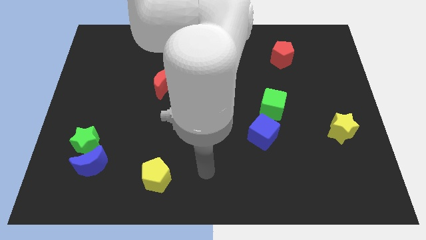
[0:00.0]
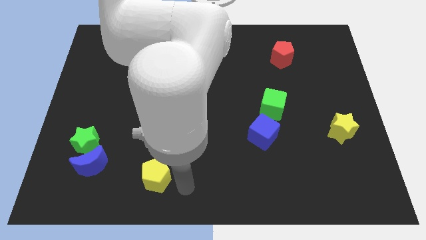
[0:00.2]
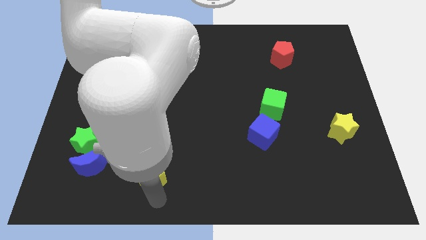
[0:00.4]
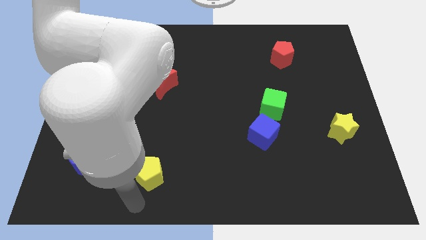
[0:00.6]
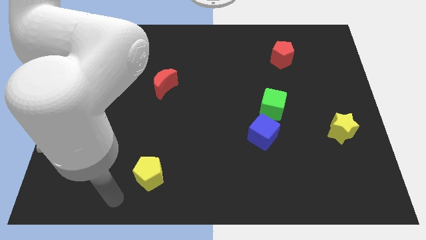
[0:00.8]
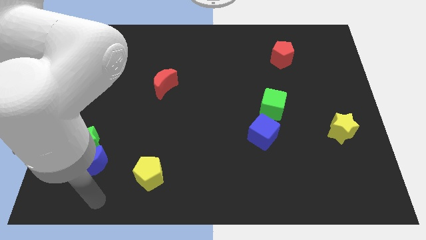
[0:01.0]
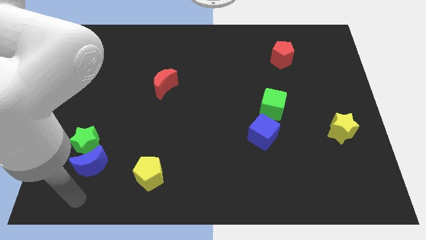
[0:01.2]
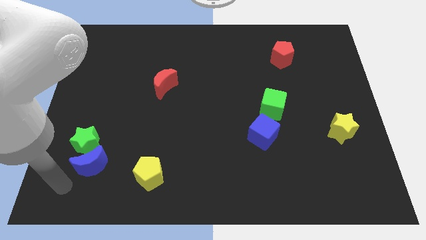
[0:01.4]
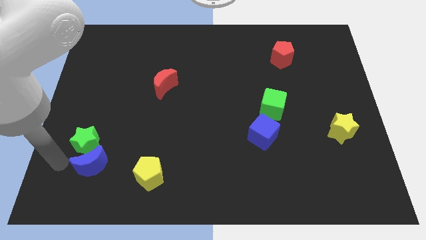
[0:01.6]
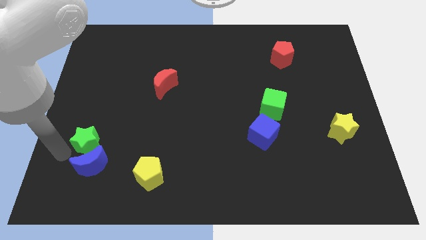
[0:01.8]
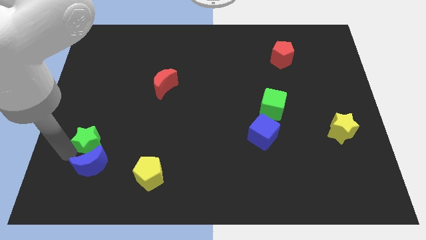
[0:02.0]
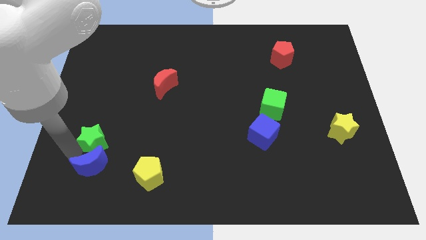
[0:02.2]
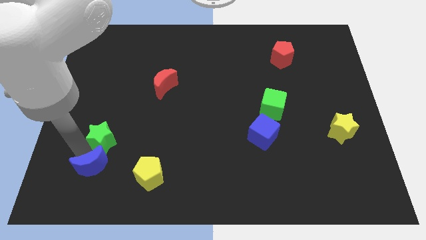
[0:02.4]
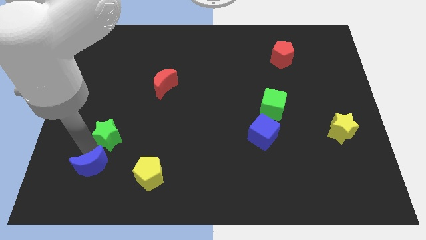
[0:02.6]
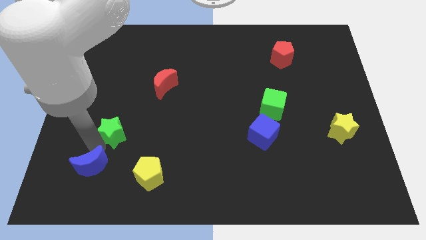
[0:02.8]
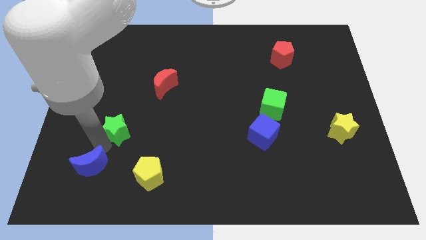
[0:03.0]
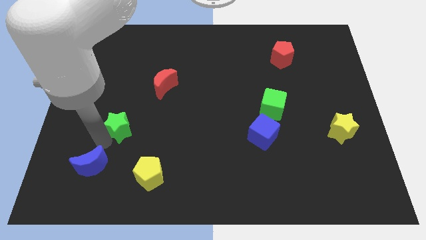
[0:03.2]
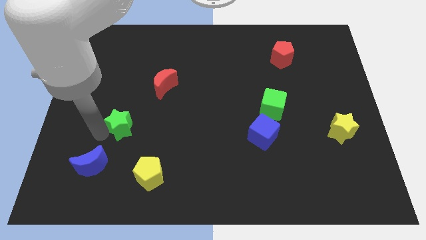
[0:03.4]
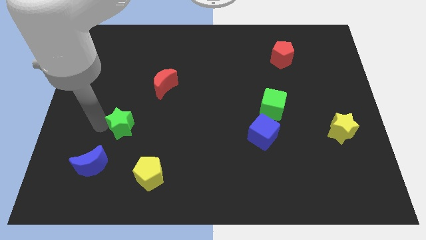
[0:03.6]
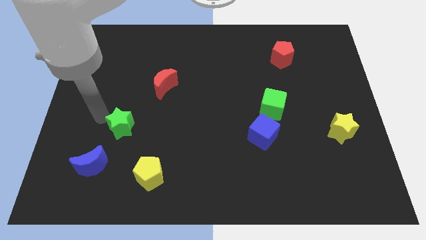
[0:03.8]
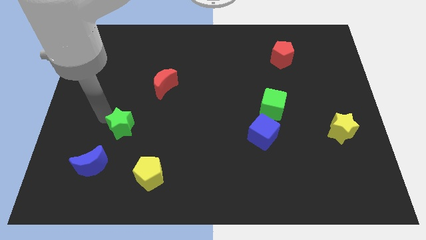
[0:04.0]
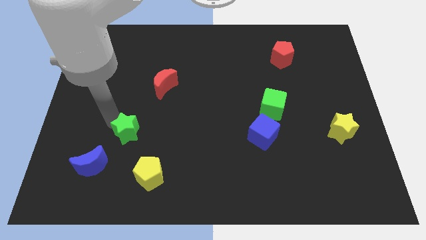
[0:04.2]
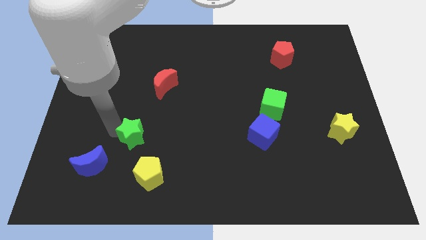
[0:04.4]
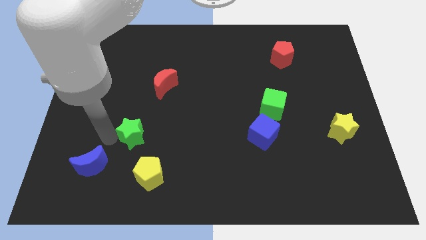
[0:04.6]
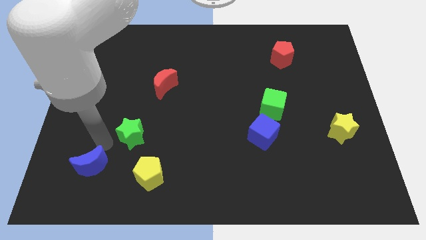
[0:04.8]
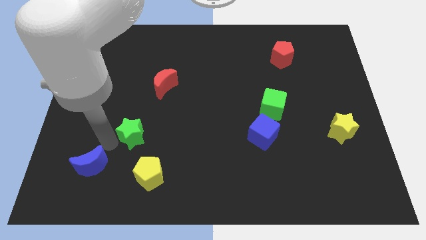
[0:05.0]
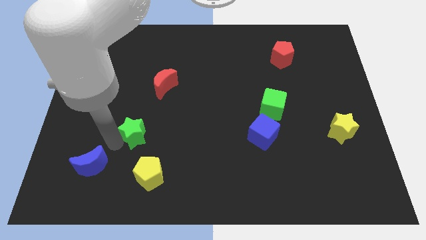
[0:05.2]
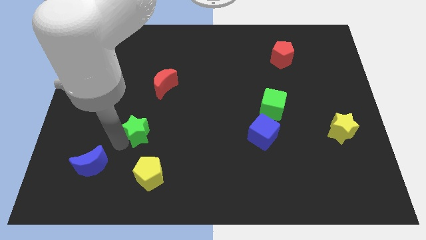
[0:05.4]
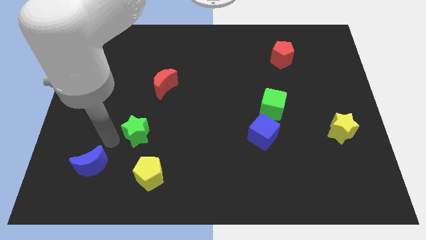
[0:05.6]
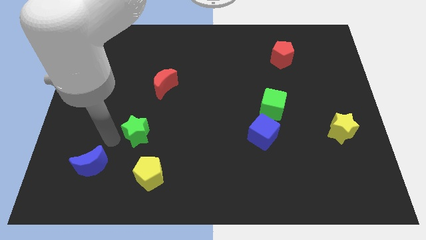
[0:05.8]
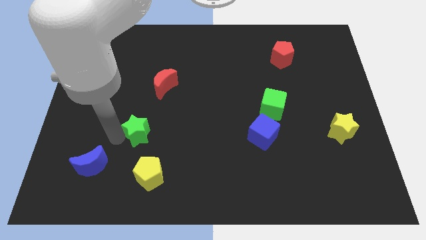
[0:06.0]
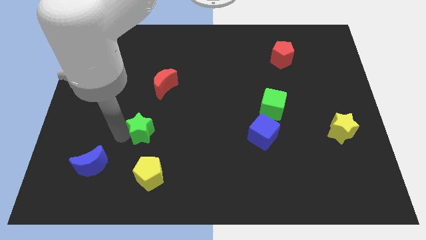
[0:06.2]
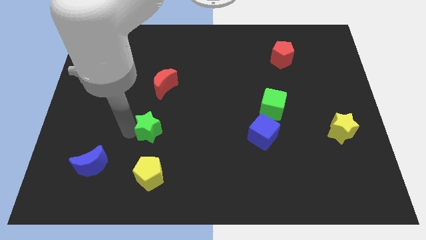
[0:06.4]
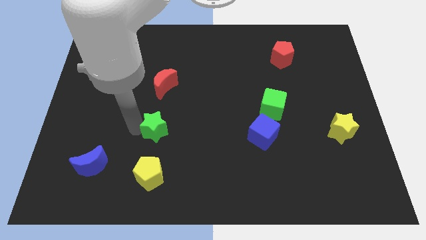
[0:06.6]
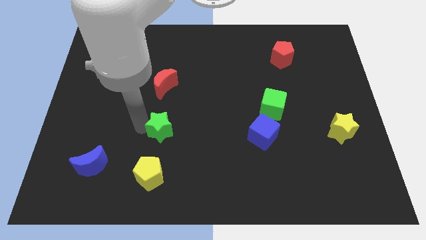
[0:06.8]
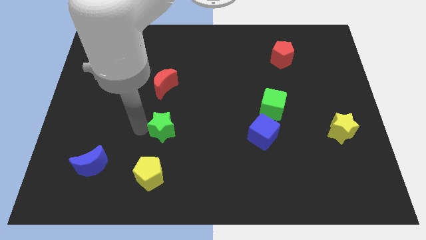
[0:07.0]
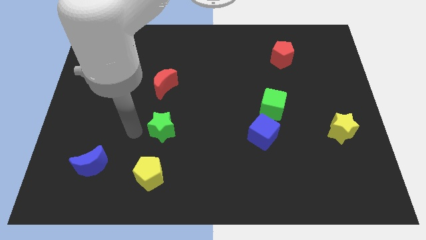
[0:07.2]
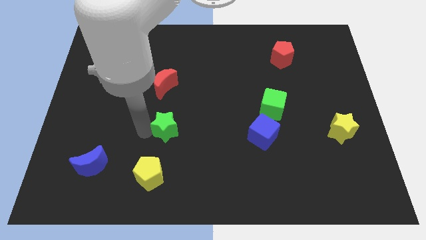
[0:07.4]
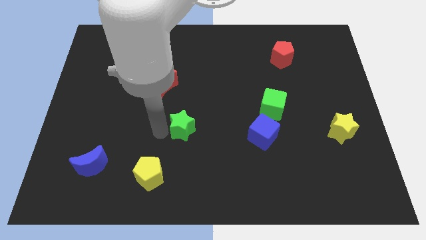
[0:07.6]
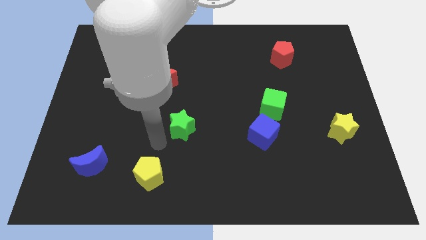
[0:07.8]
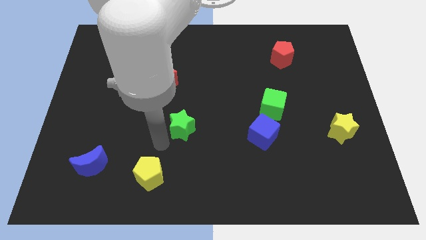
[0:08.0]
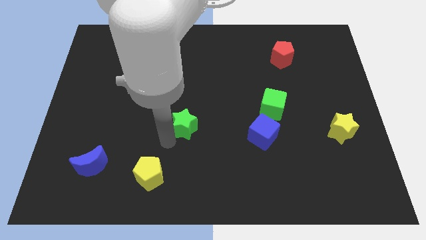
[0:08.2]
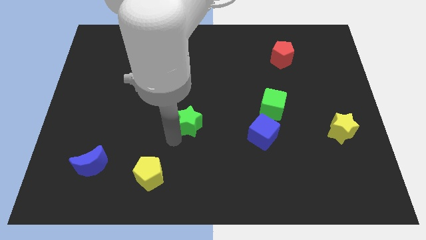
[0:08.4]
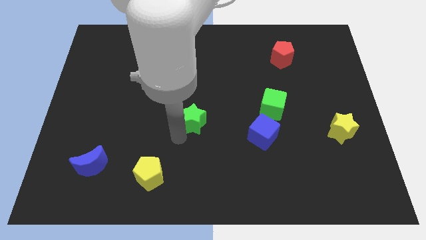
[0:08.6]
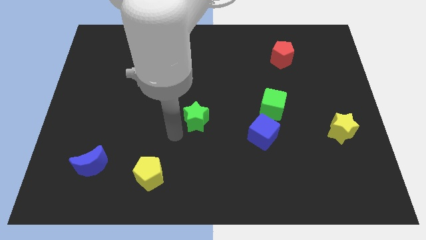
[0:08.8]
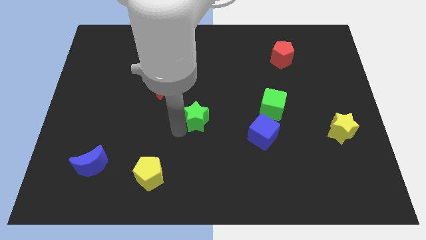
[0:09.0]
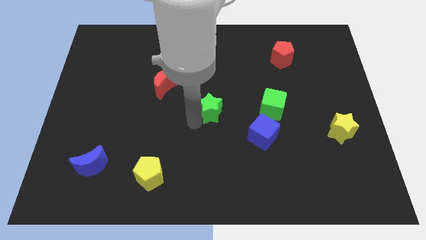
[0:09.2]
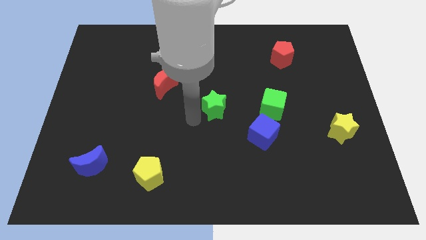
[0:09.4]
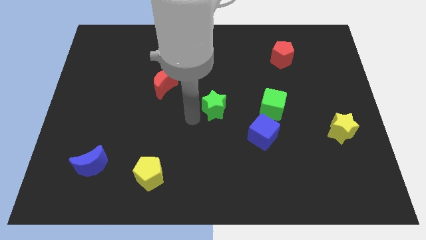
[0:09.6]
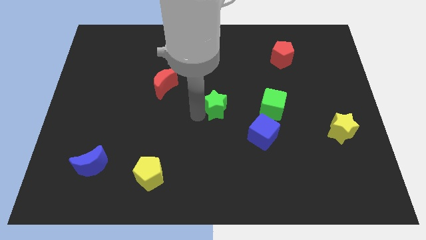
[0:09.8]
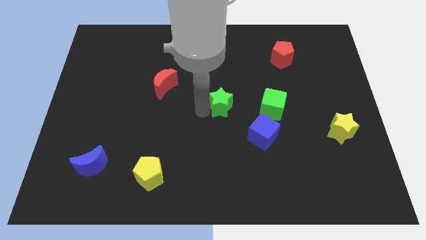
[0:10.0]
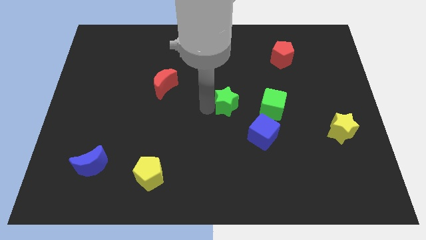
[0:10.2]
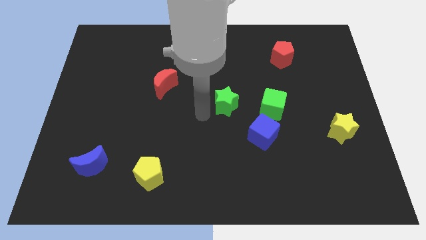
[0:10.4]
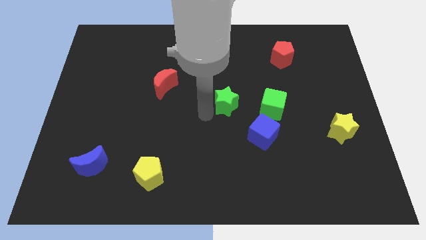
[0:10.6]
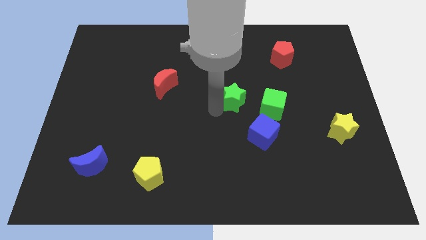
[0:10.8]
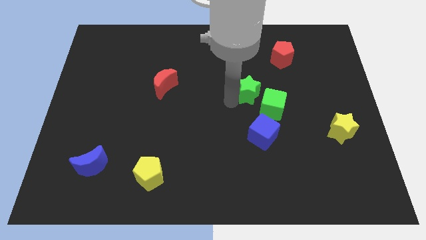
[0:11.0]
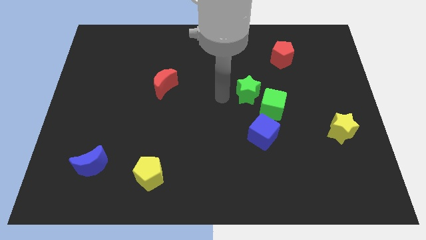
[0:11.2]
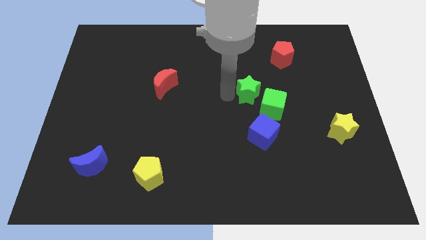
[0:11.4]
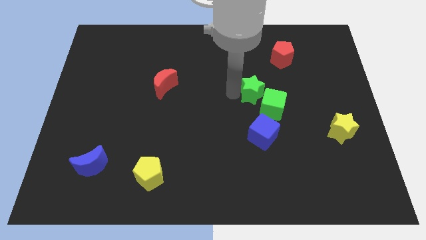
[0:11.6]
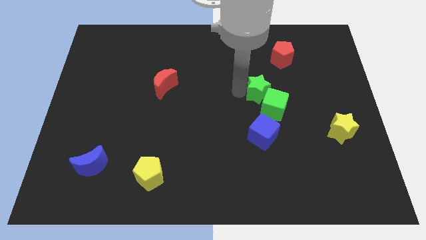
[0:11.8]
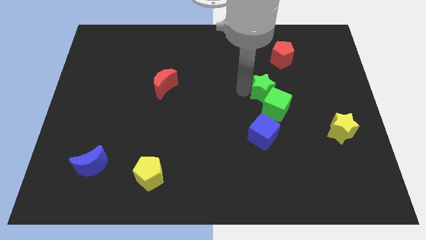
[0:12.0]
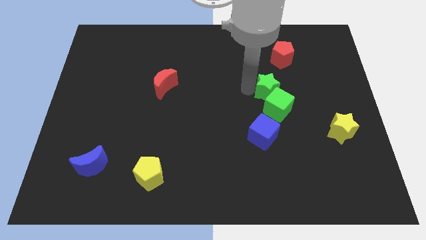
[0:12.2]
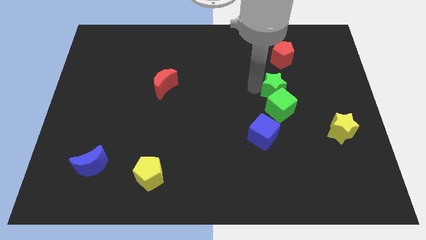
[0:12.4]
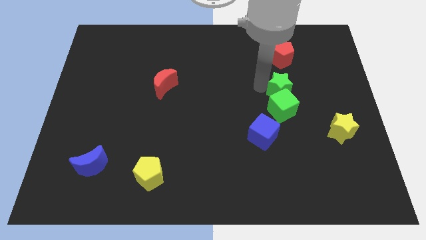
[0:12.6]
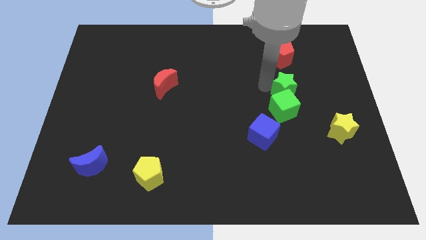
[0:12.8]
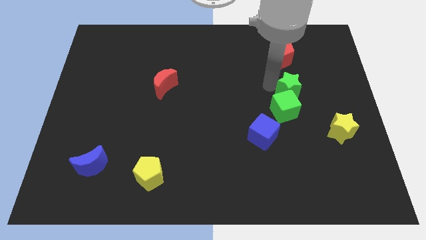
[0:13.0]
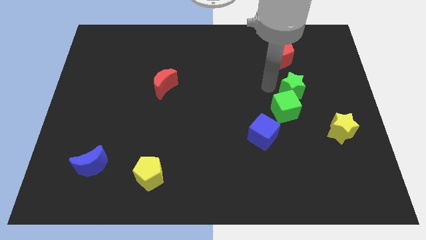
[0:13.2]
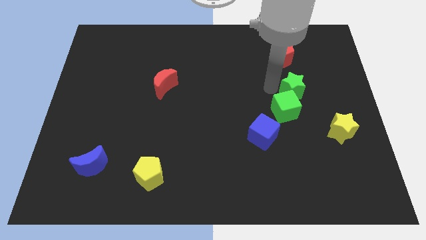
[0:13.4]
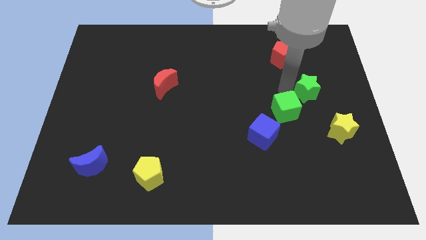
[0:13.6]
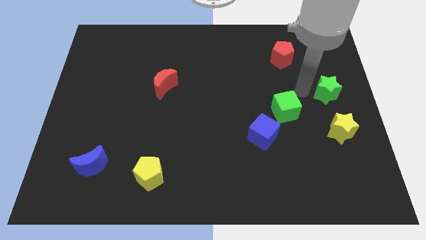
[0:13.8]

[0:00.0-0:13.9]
put the green star to the right side of the board
